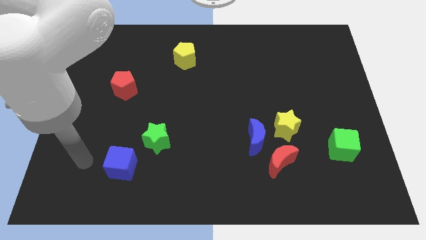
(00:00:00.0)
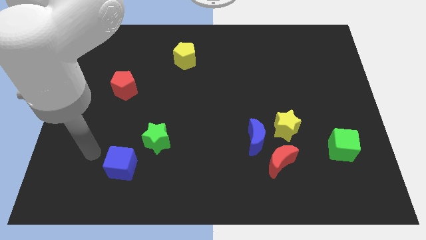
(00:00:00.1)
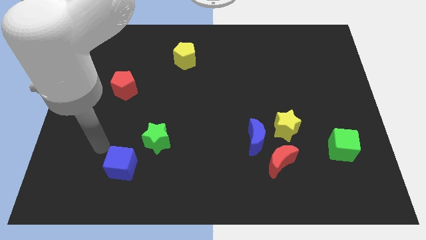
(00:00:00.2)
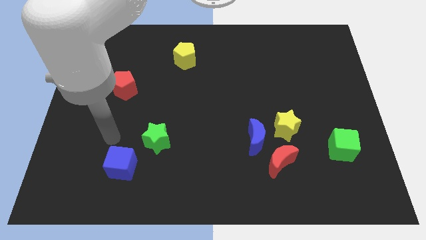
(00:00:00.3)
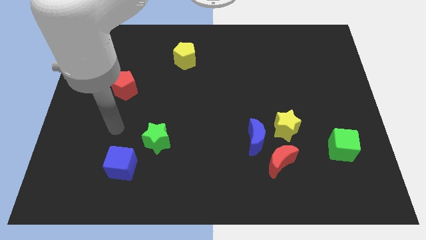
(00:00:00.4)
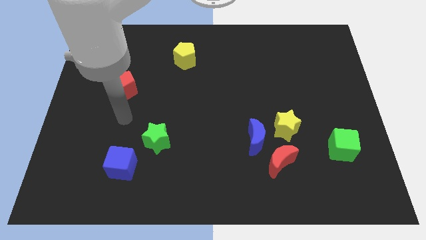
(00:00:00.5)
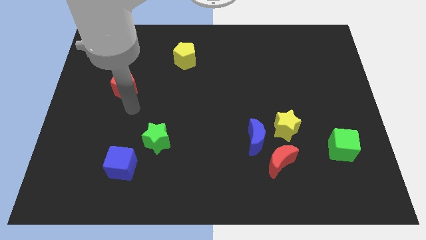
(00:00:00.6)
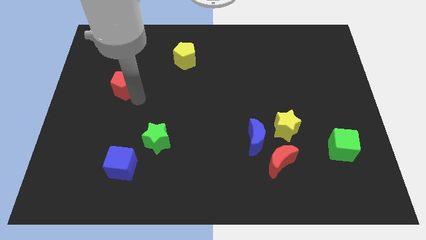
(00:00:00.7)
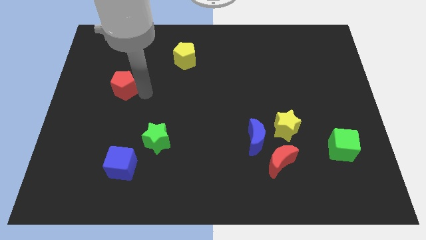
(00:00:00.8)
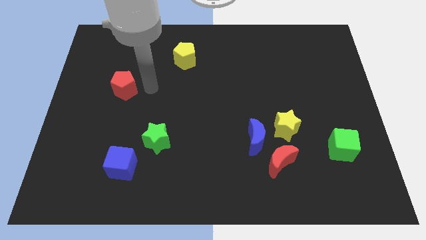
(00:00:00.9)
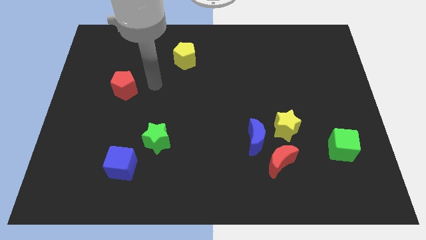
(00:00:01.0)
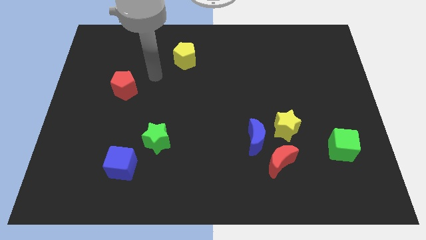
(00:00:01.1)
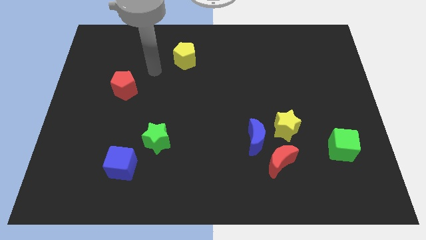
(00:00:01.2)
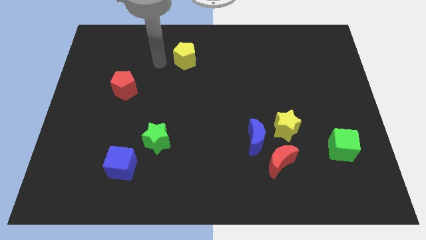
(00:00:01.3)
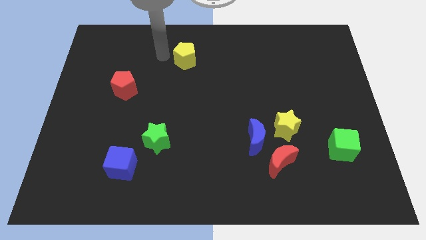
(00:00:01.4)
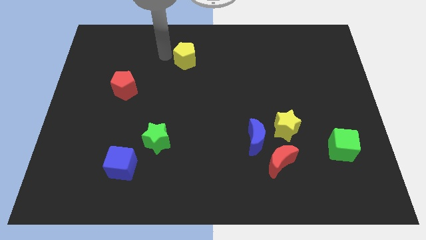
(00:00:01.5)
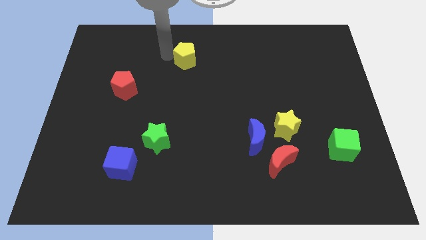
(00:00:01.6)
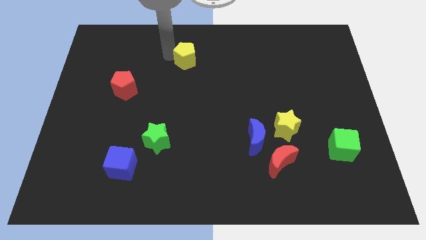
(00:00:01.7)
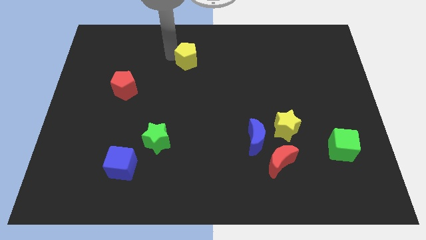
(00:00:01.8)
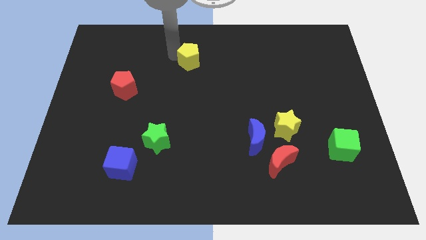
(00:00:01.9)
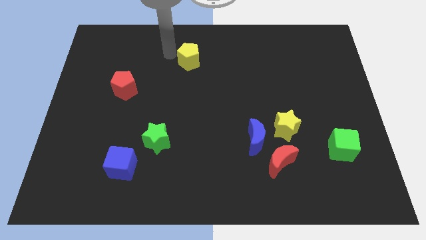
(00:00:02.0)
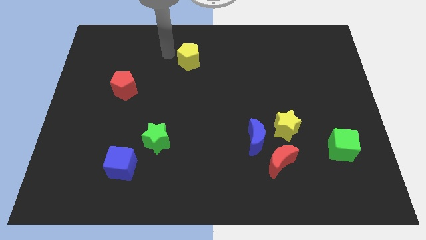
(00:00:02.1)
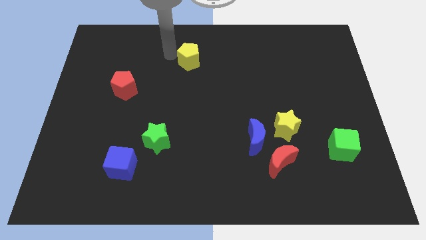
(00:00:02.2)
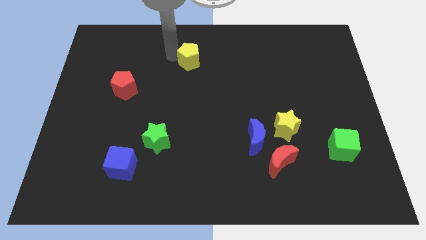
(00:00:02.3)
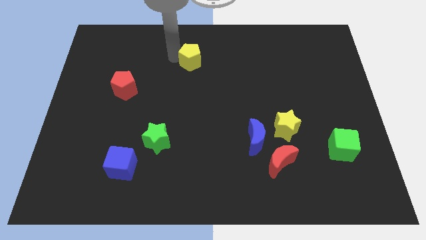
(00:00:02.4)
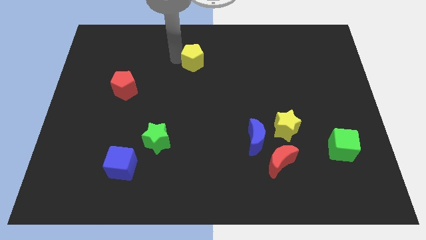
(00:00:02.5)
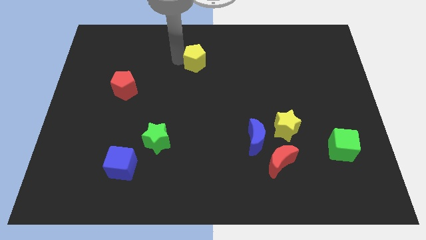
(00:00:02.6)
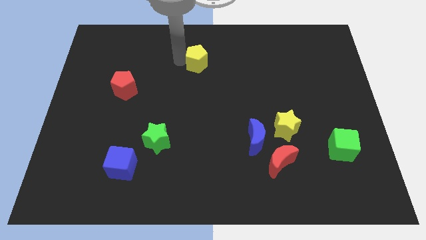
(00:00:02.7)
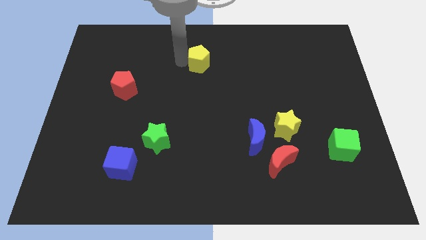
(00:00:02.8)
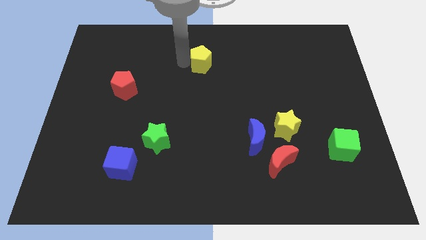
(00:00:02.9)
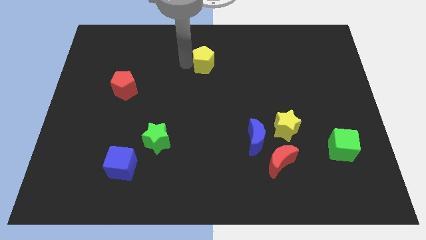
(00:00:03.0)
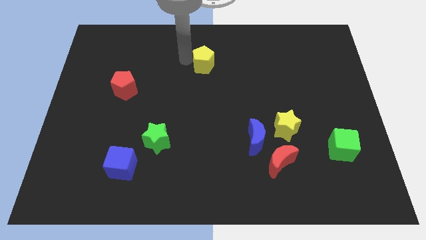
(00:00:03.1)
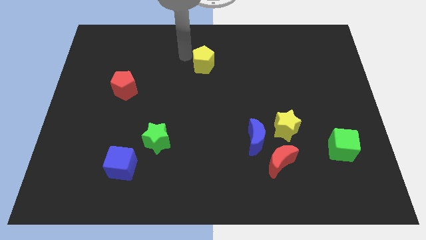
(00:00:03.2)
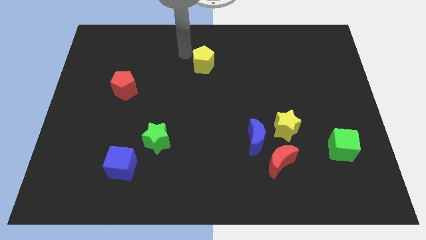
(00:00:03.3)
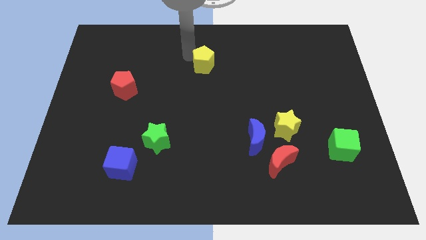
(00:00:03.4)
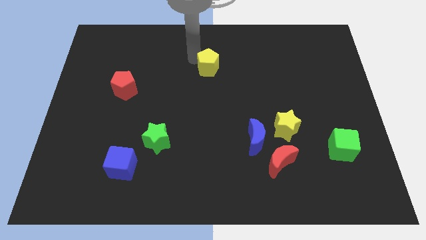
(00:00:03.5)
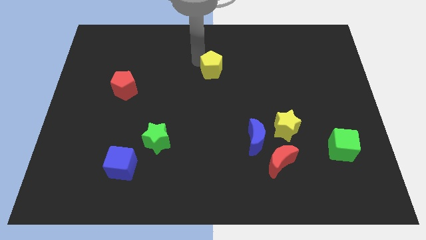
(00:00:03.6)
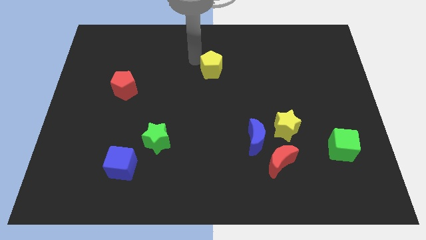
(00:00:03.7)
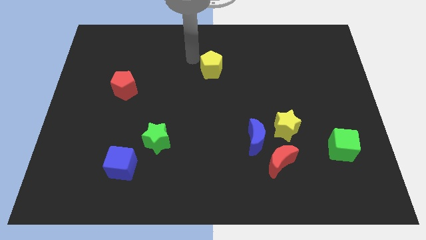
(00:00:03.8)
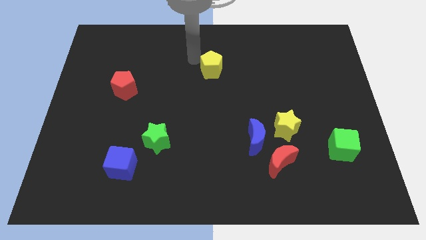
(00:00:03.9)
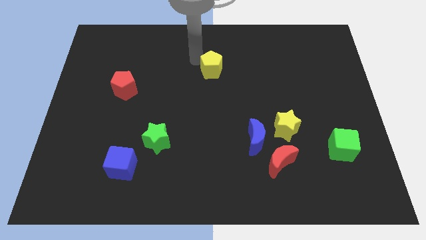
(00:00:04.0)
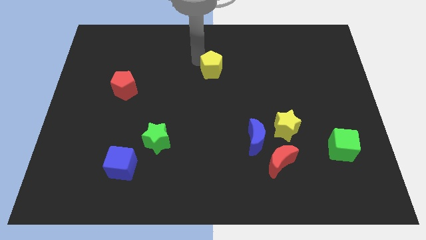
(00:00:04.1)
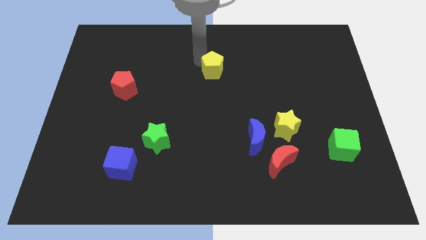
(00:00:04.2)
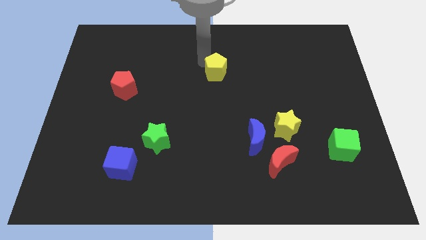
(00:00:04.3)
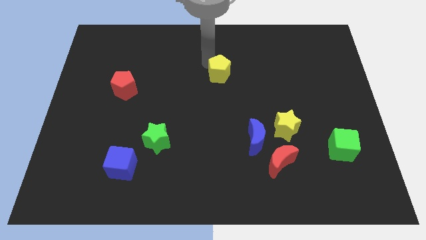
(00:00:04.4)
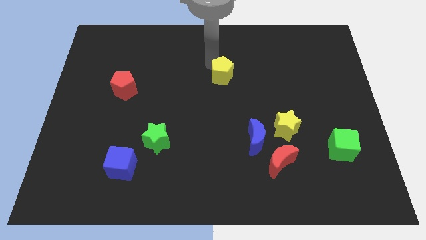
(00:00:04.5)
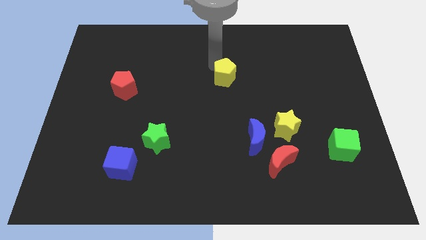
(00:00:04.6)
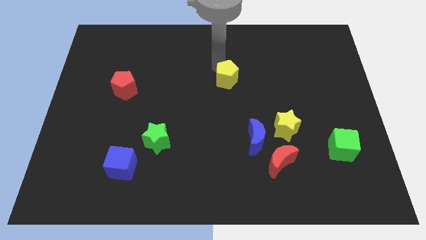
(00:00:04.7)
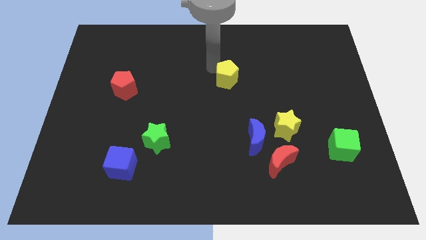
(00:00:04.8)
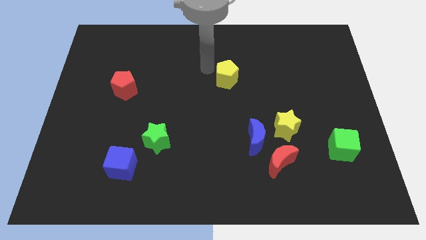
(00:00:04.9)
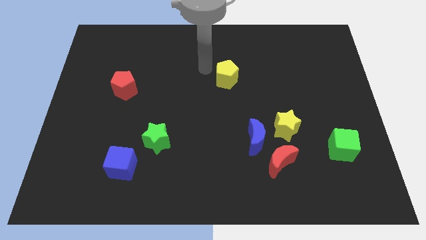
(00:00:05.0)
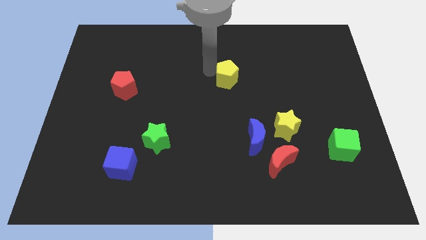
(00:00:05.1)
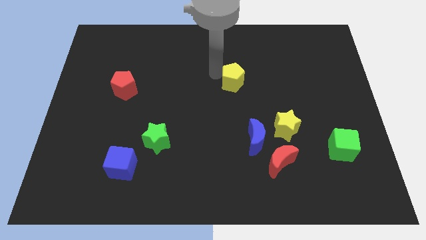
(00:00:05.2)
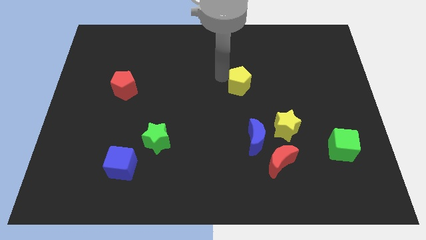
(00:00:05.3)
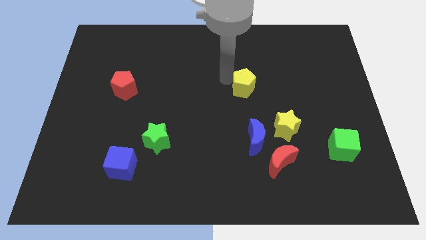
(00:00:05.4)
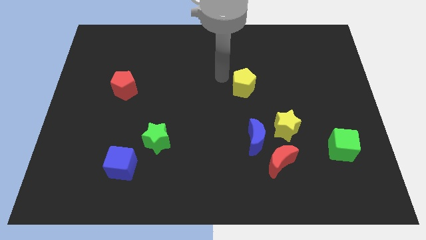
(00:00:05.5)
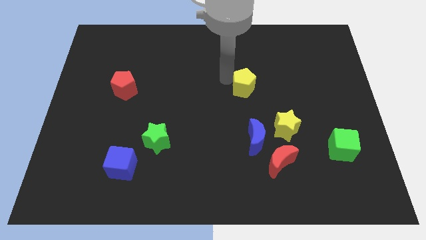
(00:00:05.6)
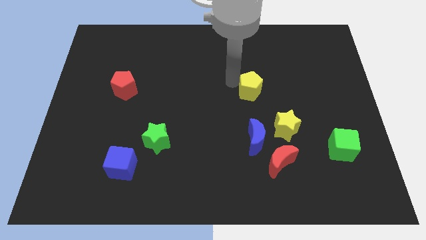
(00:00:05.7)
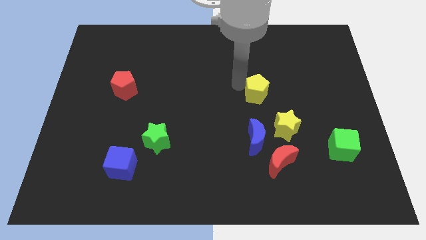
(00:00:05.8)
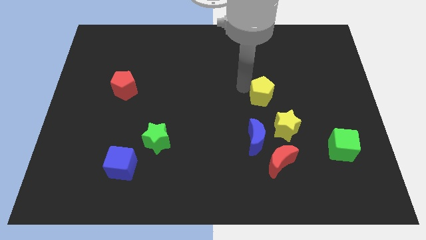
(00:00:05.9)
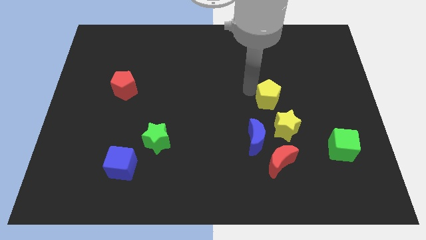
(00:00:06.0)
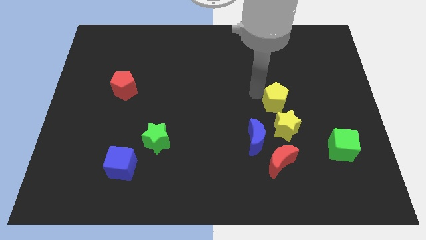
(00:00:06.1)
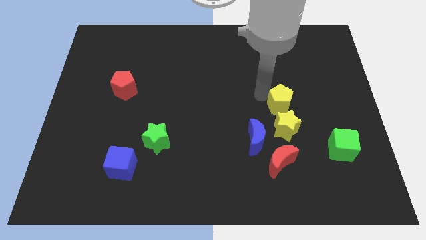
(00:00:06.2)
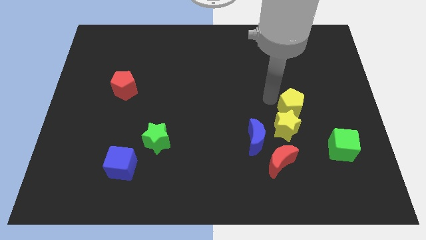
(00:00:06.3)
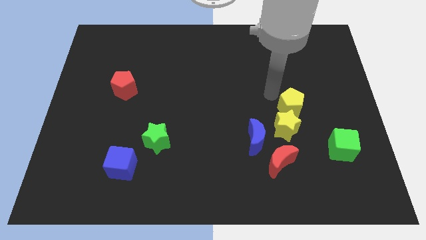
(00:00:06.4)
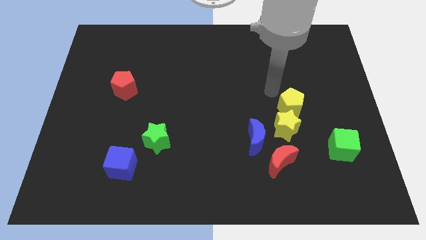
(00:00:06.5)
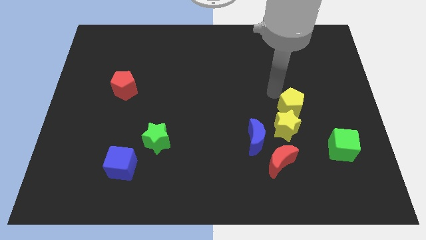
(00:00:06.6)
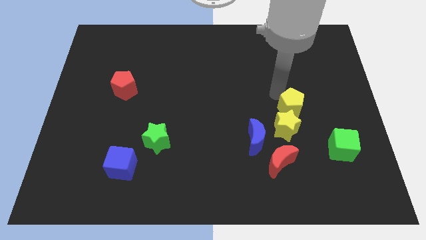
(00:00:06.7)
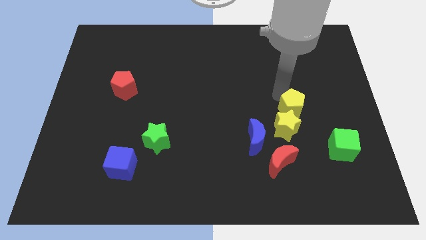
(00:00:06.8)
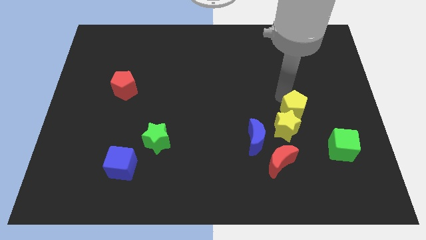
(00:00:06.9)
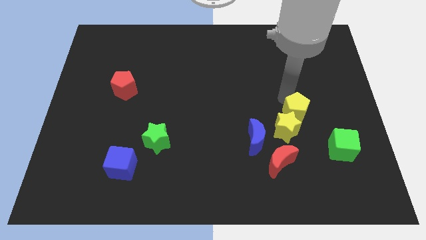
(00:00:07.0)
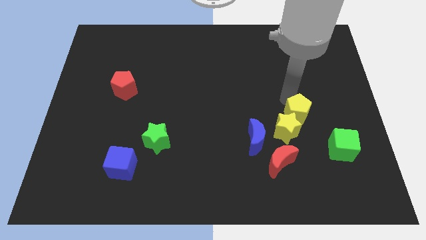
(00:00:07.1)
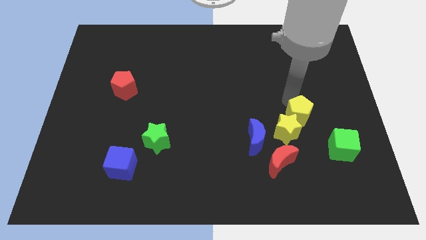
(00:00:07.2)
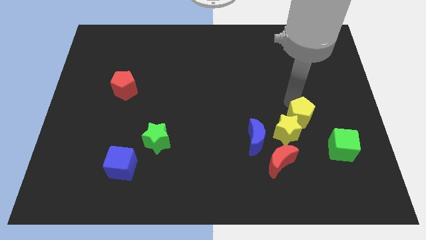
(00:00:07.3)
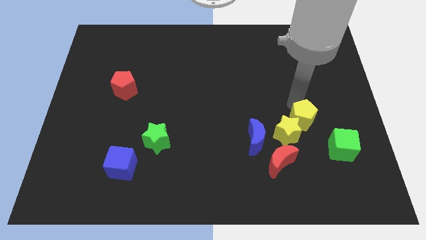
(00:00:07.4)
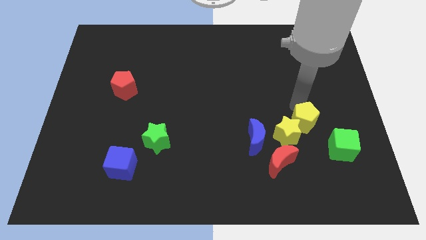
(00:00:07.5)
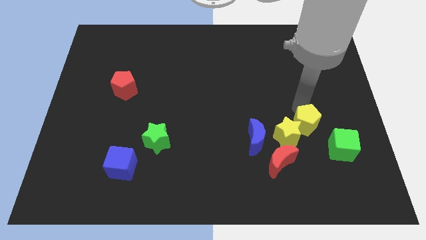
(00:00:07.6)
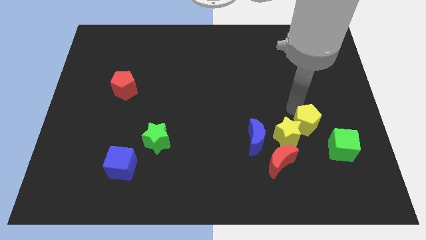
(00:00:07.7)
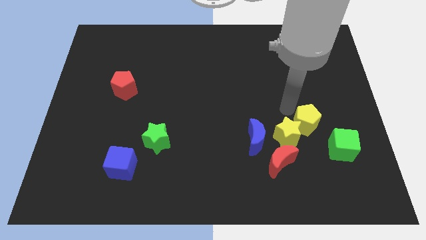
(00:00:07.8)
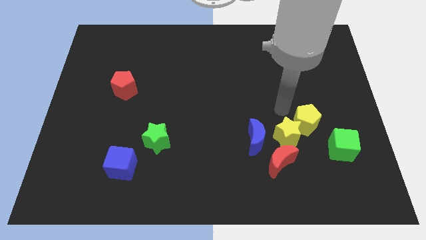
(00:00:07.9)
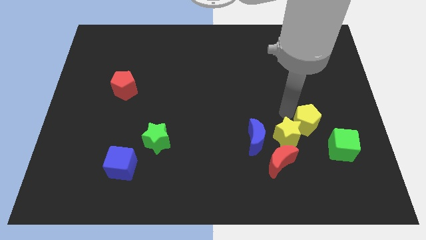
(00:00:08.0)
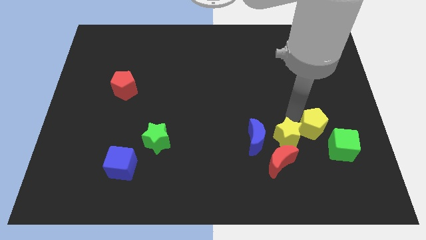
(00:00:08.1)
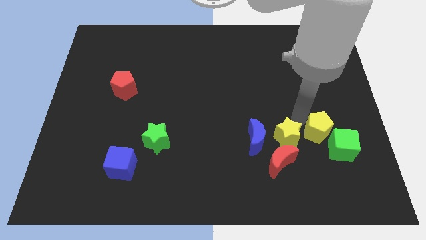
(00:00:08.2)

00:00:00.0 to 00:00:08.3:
slide the yellow pentagon towards the green cube
